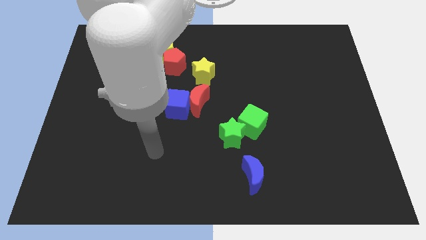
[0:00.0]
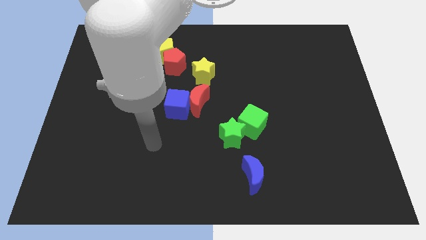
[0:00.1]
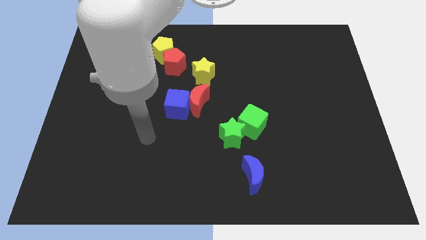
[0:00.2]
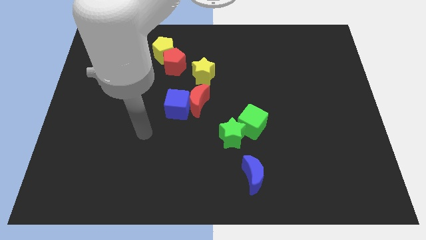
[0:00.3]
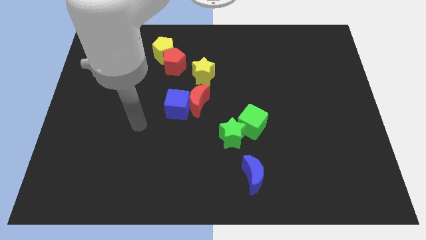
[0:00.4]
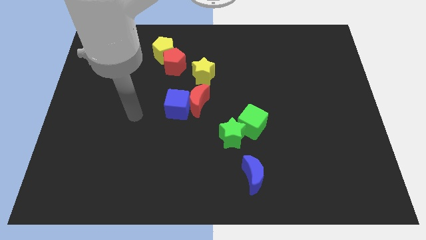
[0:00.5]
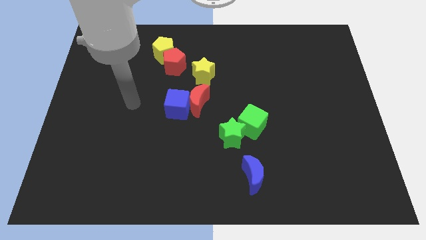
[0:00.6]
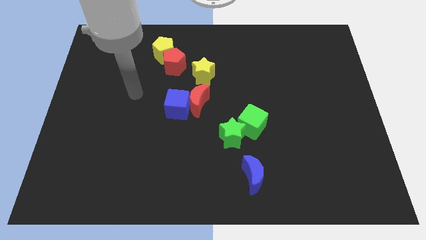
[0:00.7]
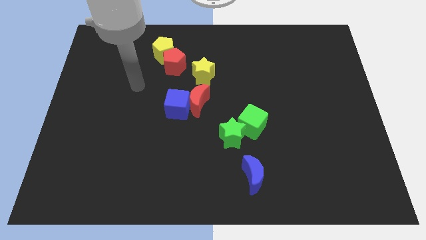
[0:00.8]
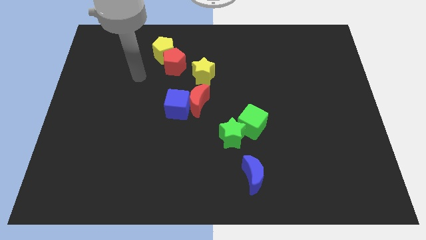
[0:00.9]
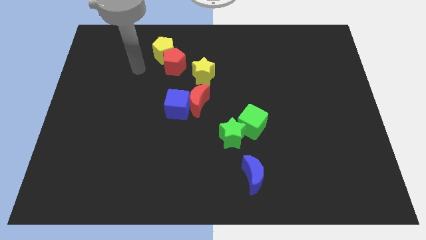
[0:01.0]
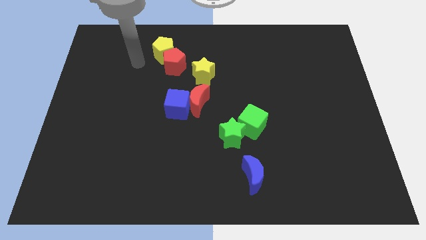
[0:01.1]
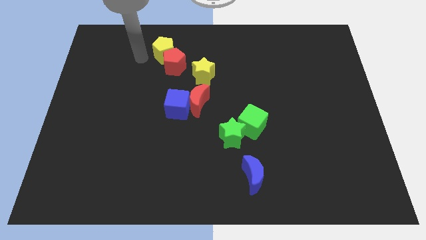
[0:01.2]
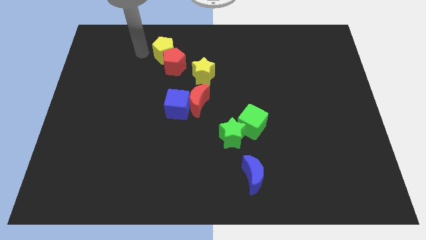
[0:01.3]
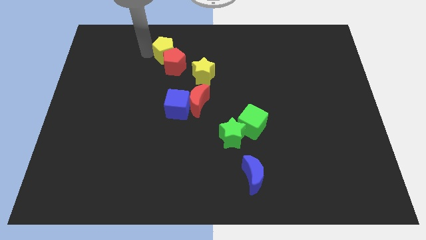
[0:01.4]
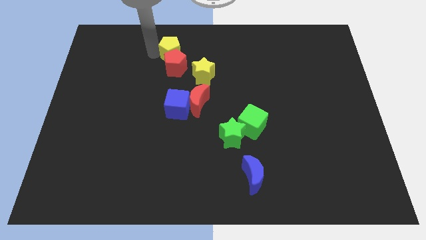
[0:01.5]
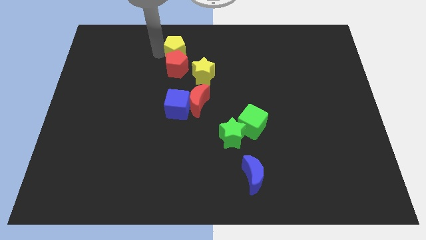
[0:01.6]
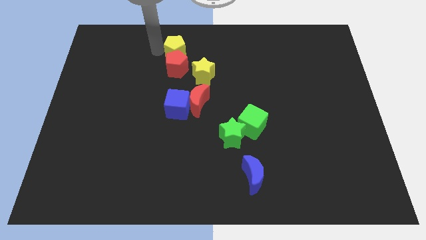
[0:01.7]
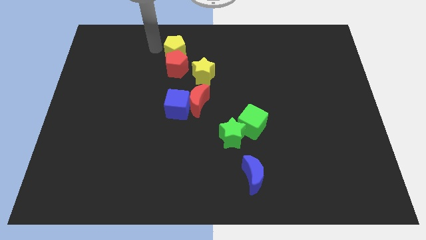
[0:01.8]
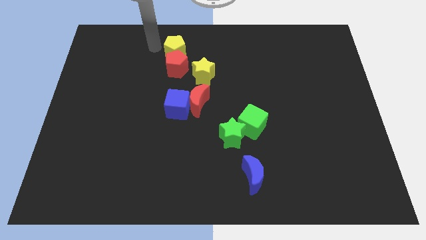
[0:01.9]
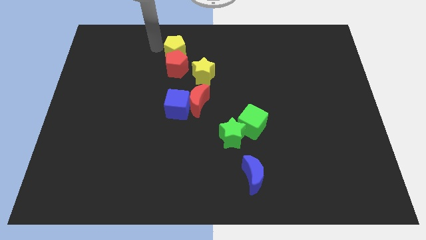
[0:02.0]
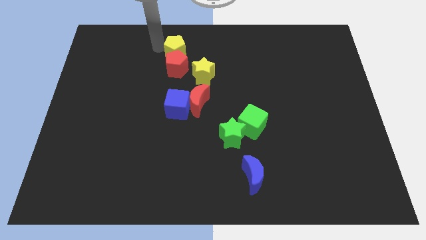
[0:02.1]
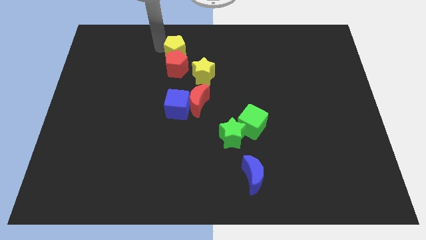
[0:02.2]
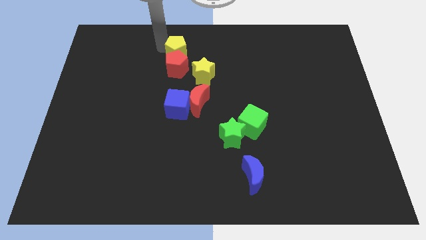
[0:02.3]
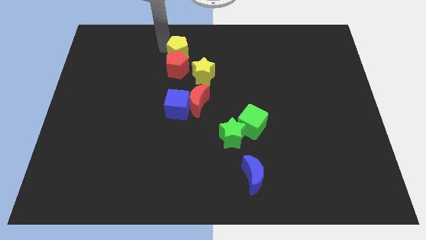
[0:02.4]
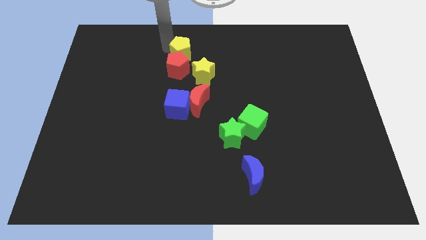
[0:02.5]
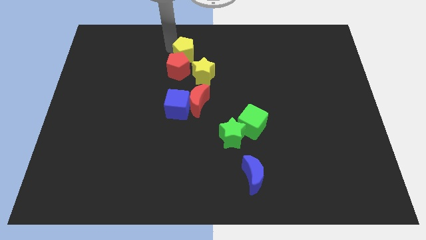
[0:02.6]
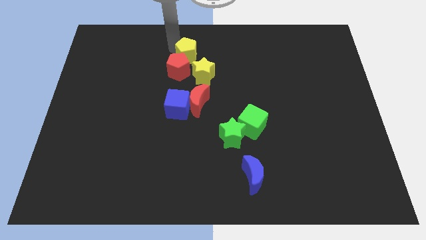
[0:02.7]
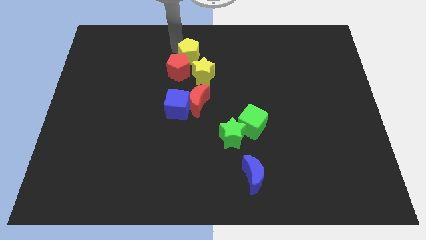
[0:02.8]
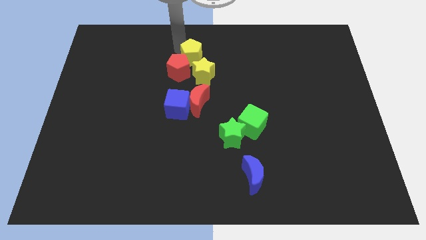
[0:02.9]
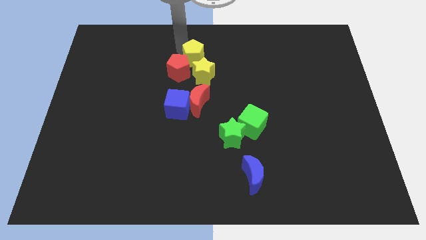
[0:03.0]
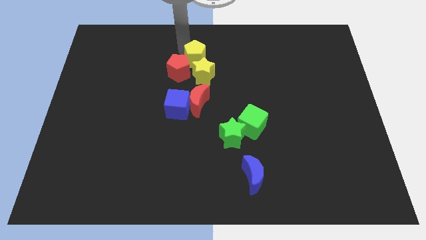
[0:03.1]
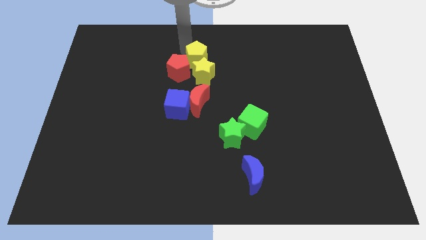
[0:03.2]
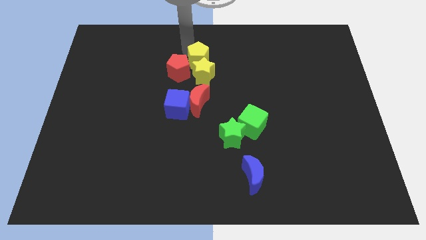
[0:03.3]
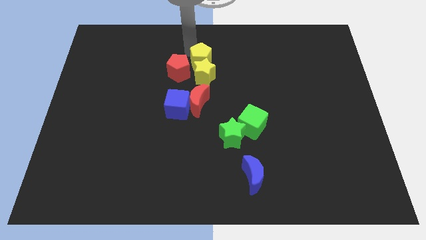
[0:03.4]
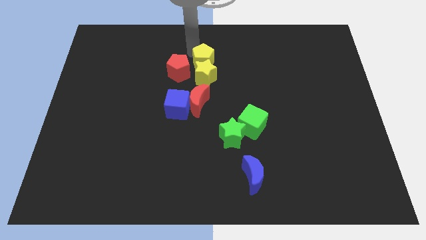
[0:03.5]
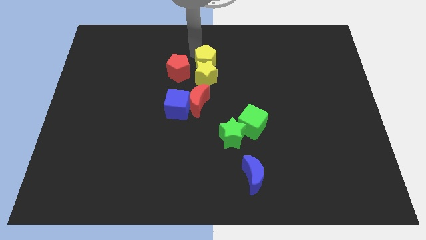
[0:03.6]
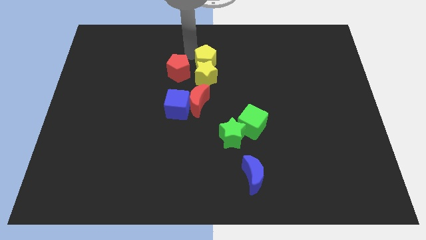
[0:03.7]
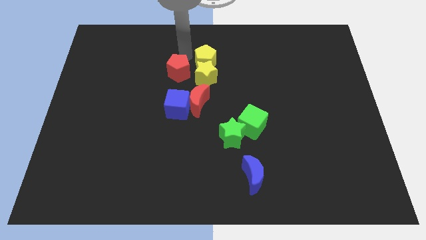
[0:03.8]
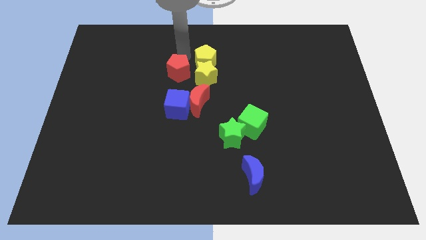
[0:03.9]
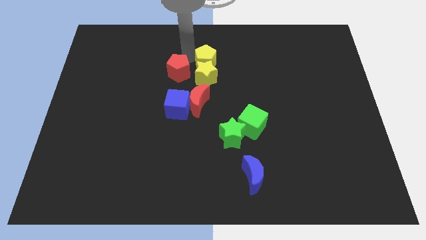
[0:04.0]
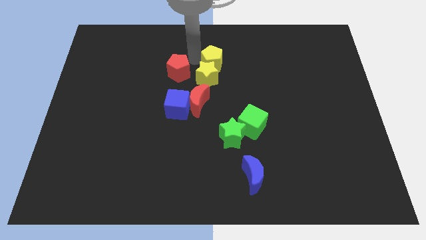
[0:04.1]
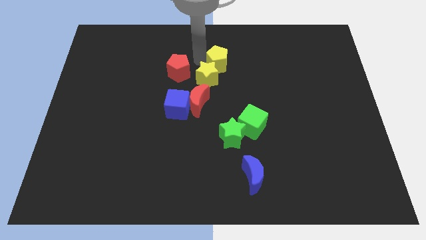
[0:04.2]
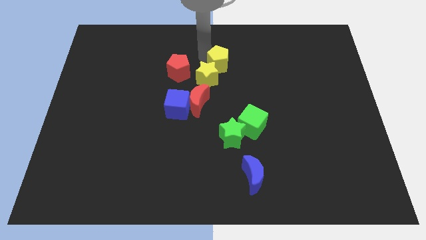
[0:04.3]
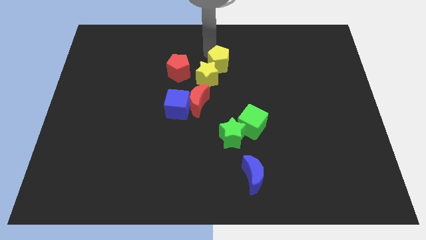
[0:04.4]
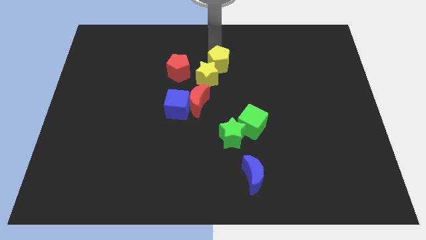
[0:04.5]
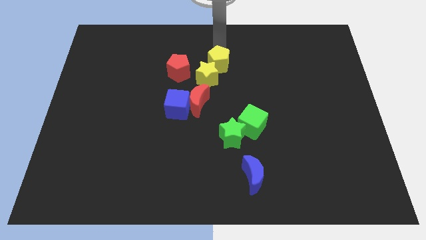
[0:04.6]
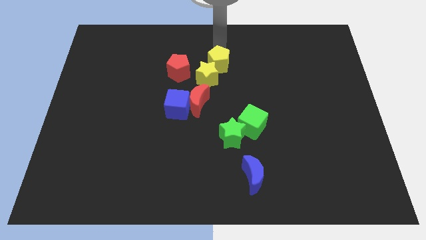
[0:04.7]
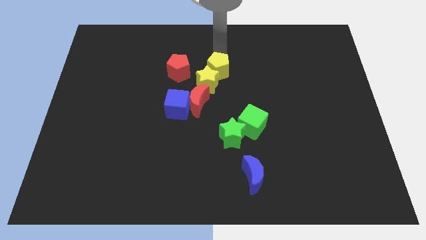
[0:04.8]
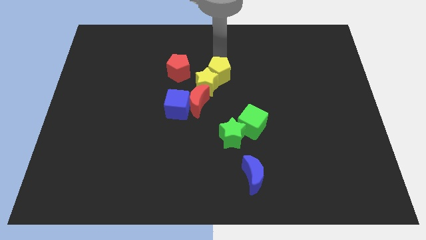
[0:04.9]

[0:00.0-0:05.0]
slide the yellow pentagon diagonally up and to the right of the red moon

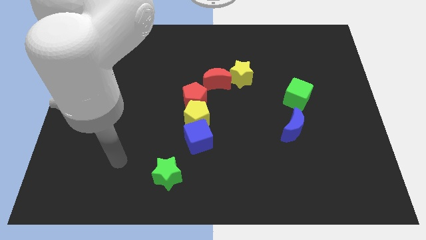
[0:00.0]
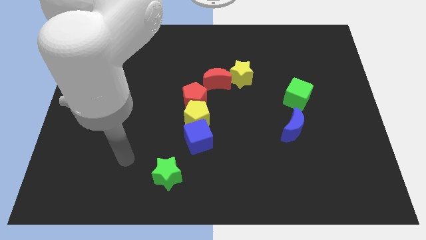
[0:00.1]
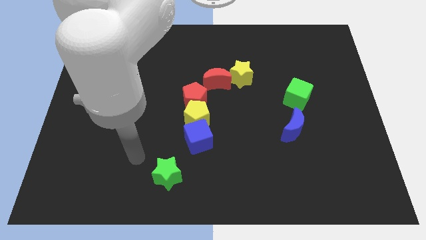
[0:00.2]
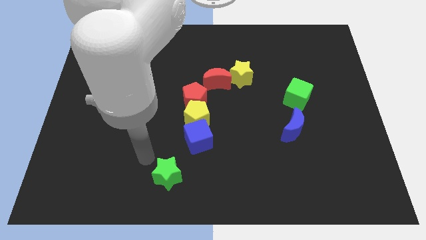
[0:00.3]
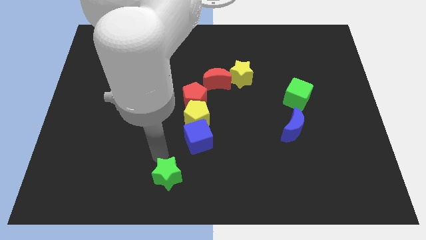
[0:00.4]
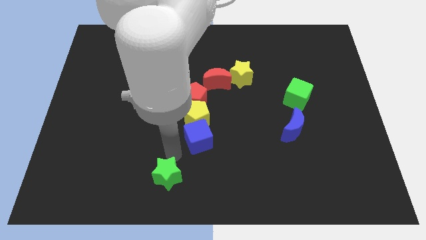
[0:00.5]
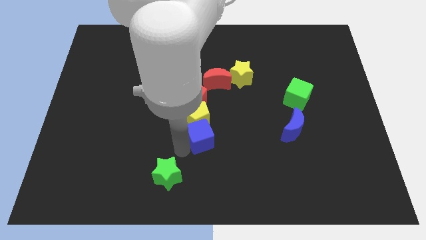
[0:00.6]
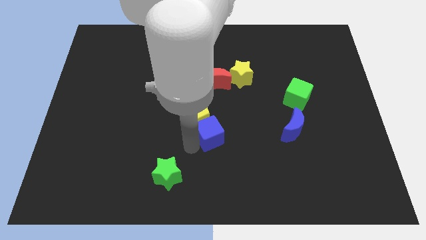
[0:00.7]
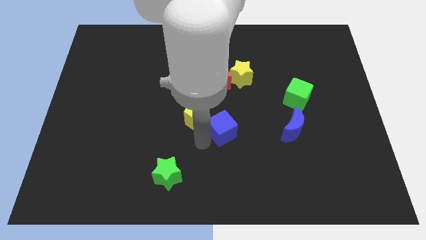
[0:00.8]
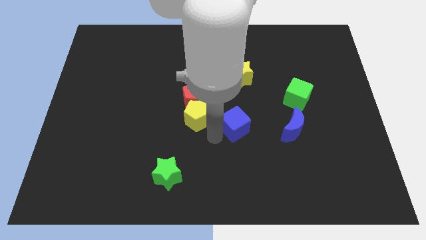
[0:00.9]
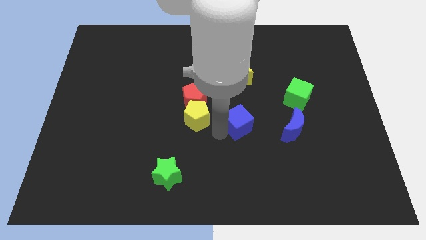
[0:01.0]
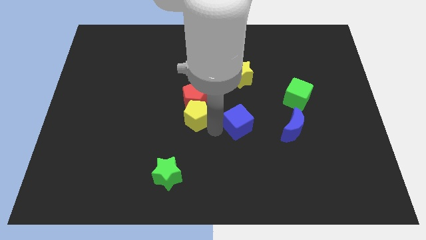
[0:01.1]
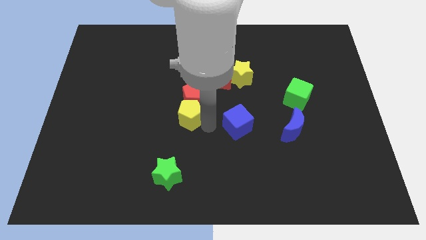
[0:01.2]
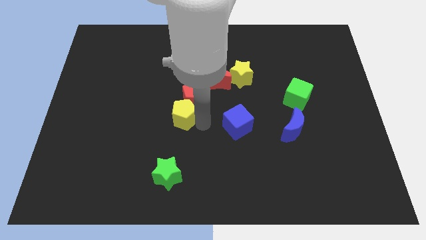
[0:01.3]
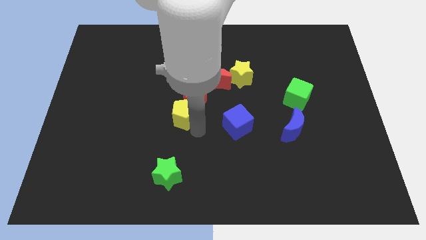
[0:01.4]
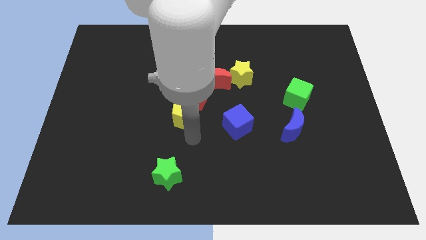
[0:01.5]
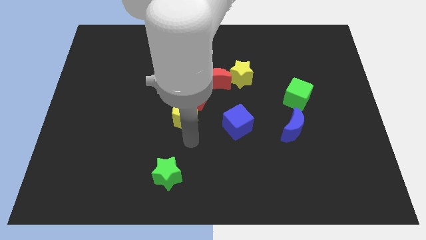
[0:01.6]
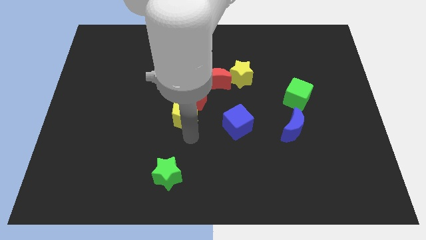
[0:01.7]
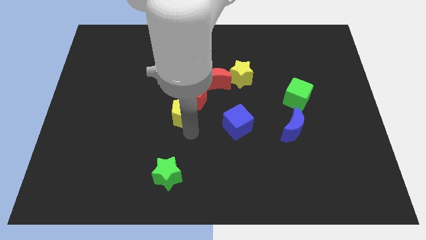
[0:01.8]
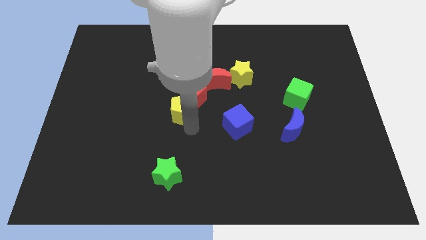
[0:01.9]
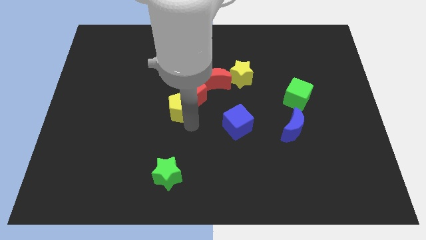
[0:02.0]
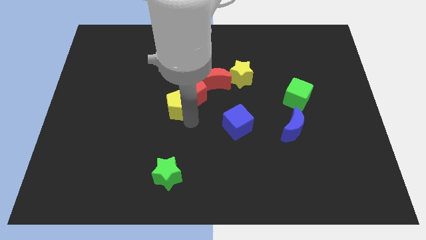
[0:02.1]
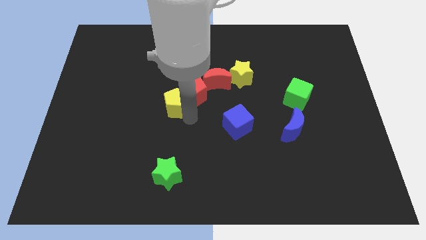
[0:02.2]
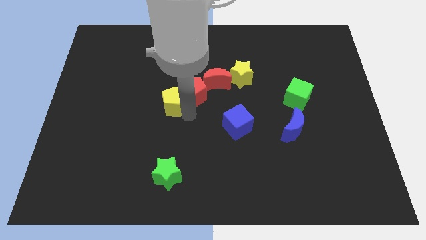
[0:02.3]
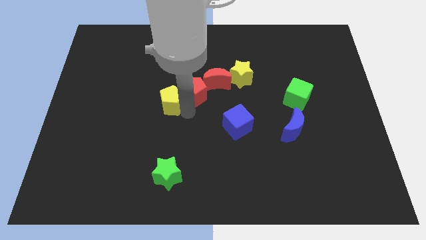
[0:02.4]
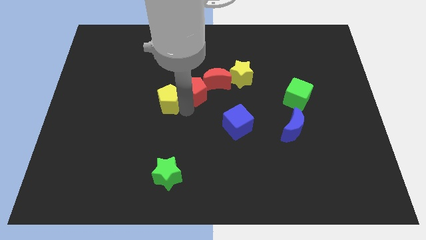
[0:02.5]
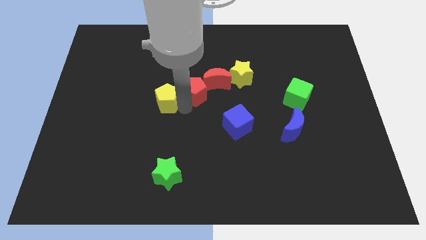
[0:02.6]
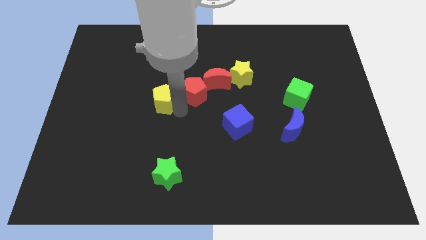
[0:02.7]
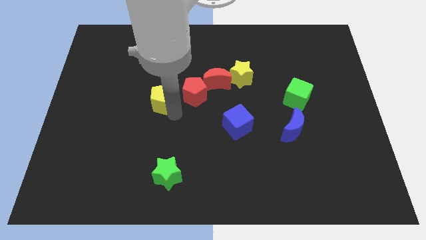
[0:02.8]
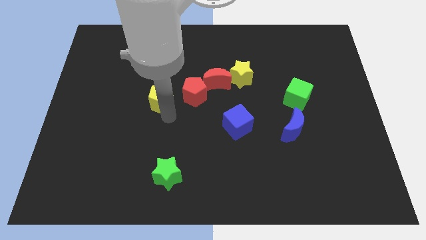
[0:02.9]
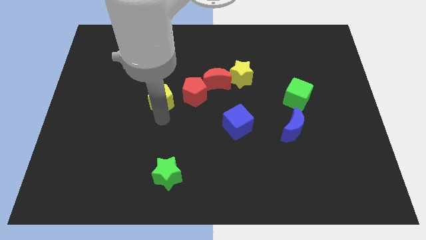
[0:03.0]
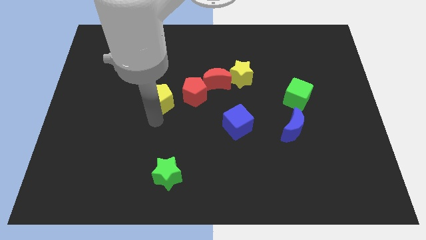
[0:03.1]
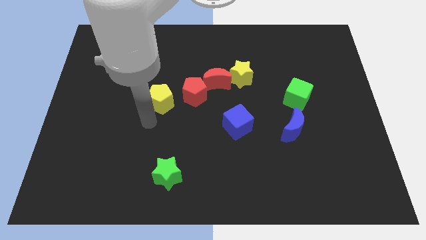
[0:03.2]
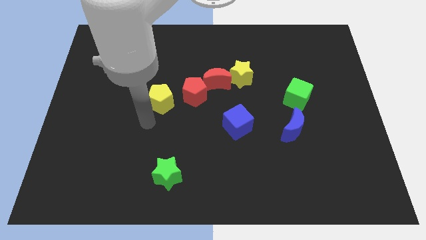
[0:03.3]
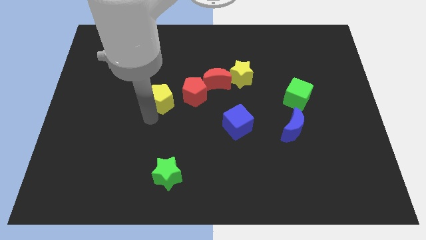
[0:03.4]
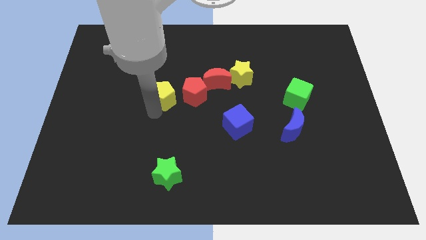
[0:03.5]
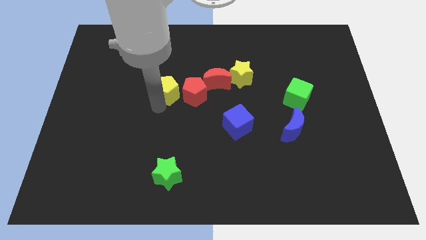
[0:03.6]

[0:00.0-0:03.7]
move the yellow pentagon just left of the red moon
